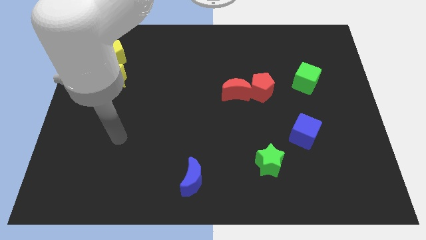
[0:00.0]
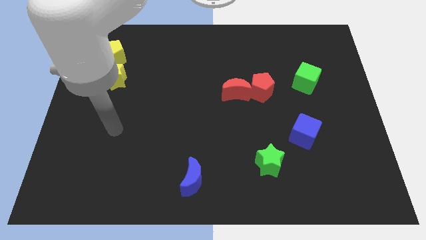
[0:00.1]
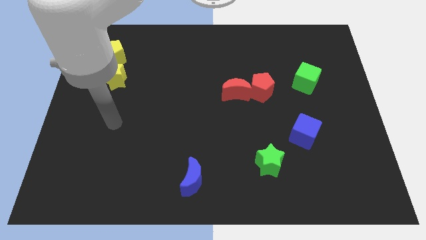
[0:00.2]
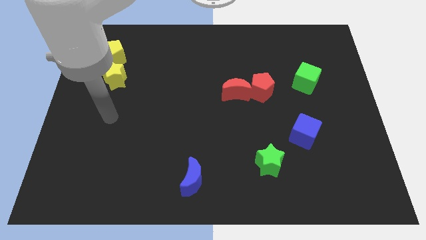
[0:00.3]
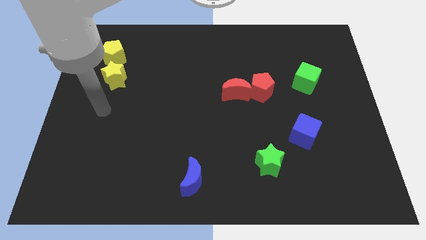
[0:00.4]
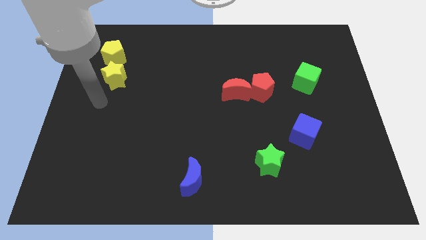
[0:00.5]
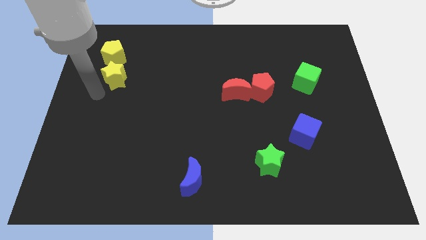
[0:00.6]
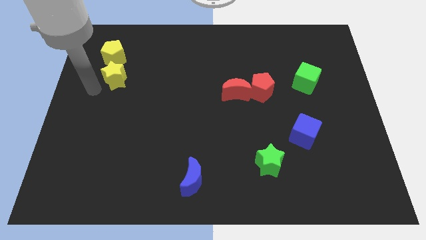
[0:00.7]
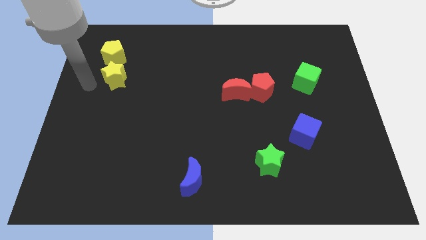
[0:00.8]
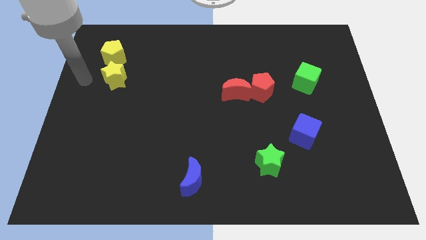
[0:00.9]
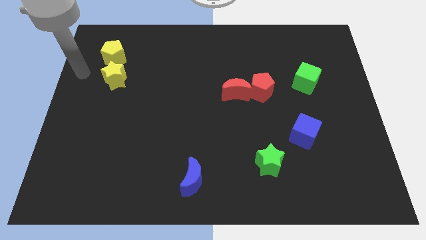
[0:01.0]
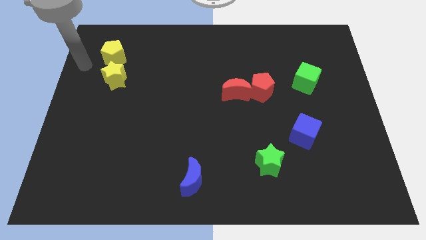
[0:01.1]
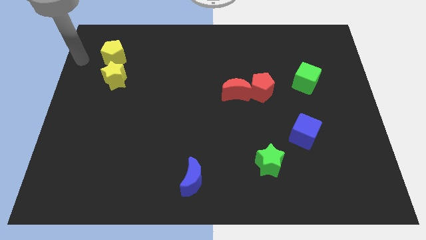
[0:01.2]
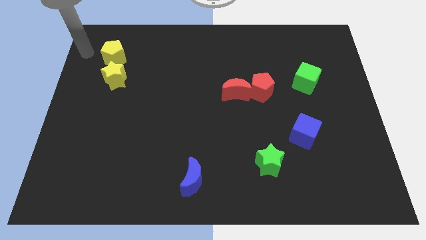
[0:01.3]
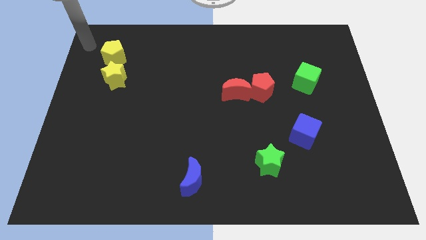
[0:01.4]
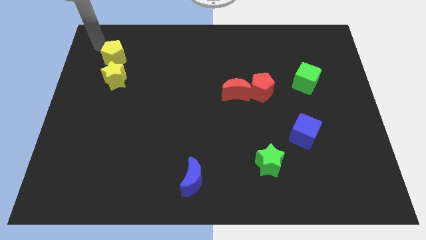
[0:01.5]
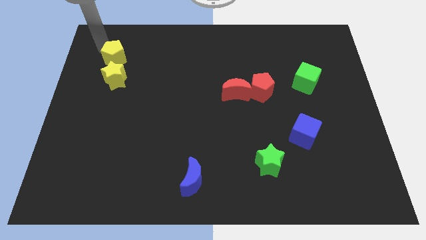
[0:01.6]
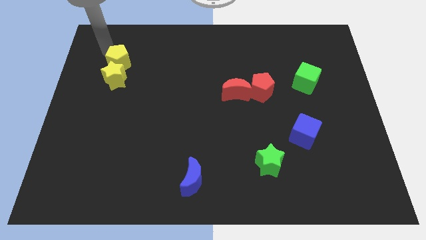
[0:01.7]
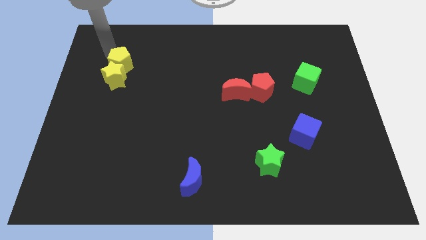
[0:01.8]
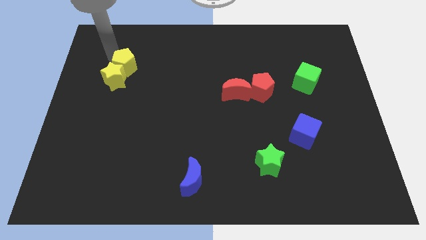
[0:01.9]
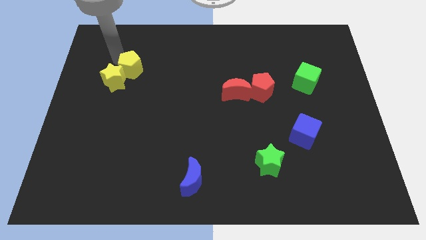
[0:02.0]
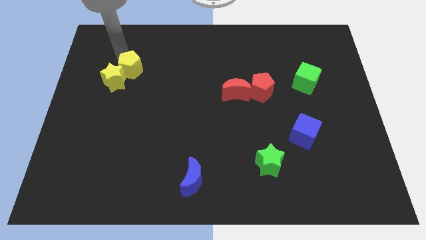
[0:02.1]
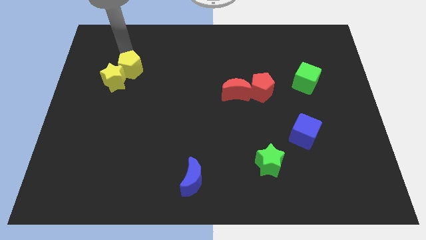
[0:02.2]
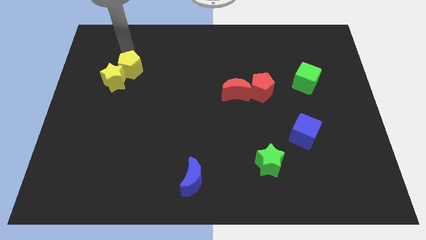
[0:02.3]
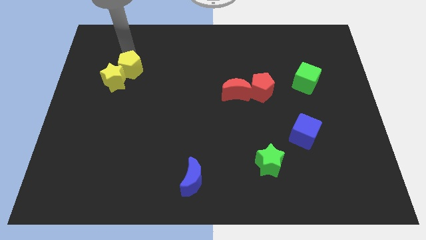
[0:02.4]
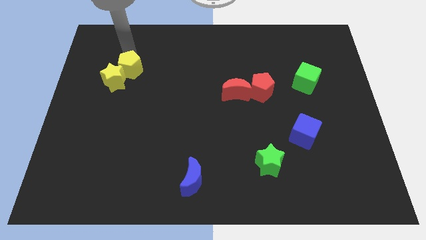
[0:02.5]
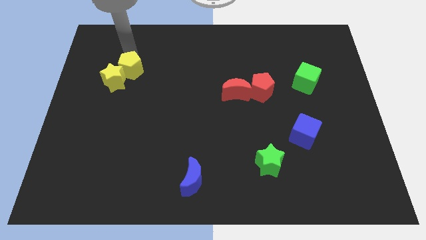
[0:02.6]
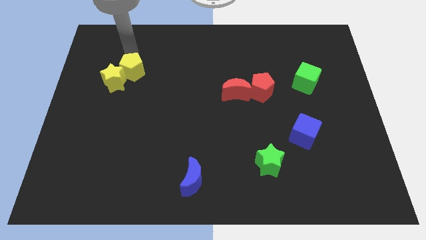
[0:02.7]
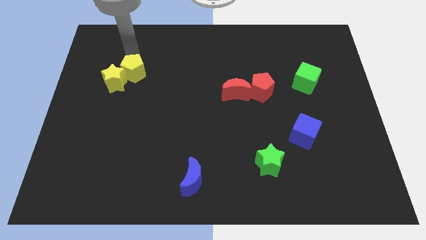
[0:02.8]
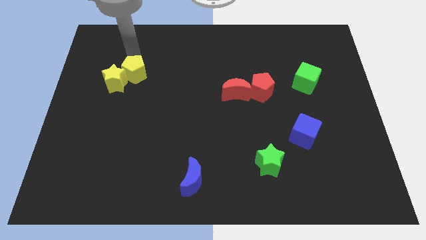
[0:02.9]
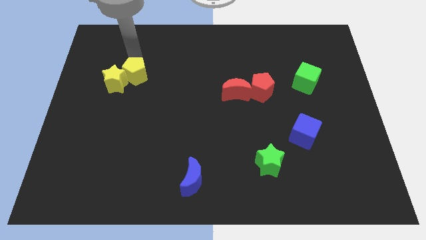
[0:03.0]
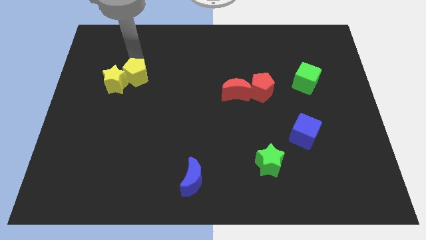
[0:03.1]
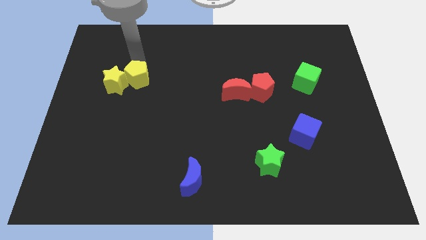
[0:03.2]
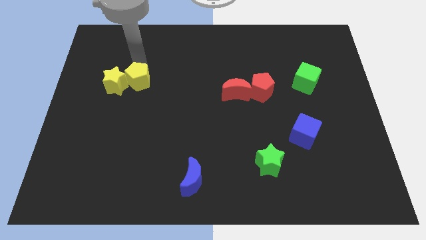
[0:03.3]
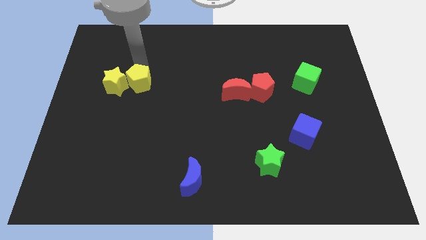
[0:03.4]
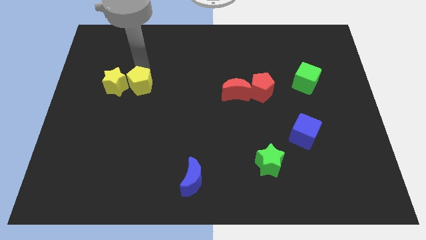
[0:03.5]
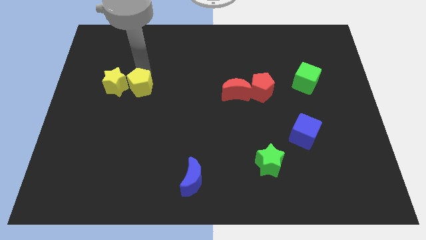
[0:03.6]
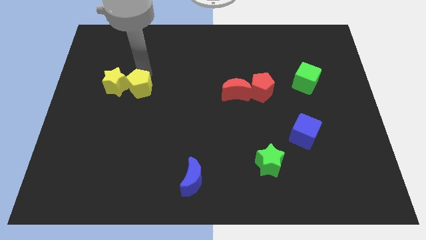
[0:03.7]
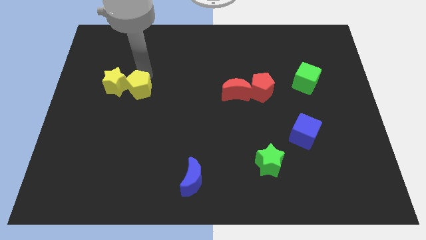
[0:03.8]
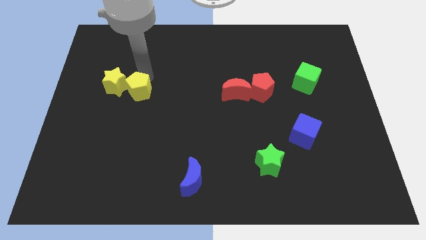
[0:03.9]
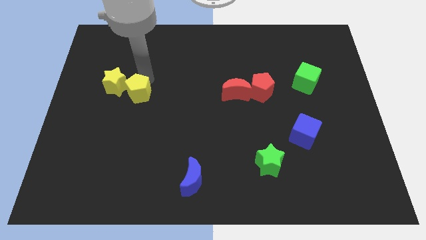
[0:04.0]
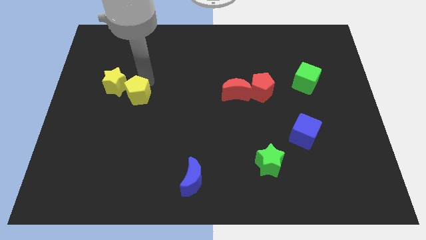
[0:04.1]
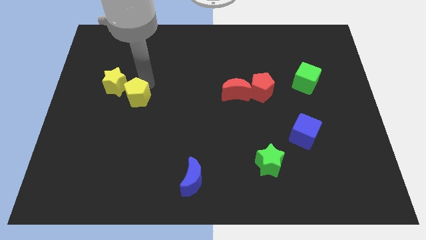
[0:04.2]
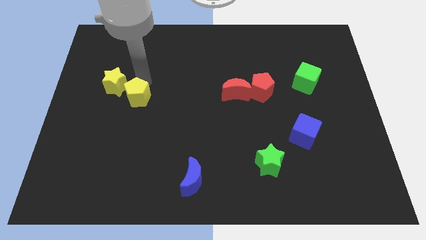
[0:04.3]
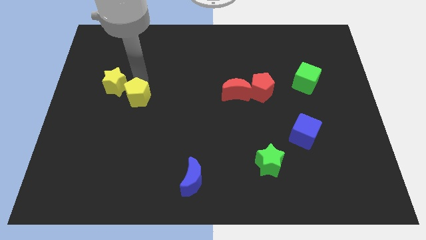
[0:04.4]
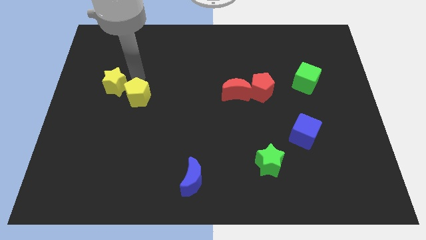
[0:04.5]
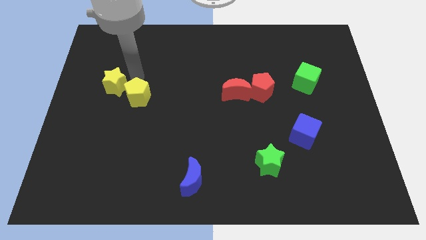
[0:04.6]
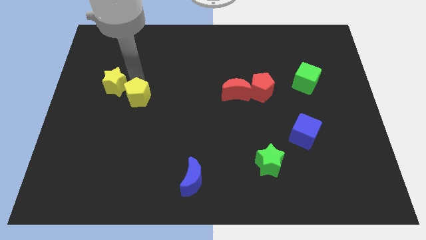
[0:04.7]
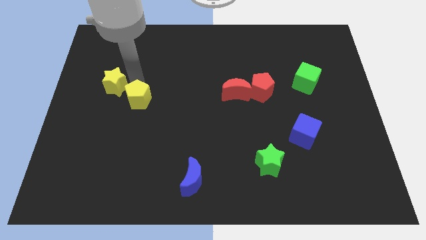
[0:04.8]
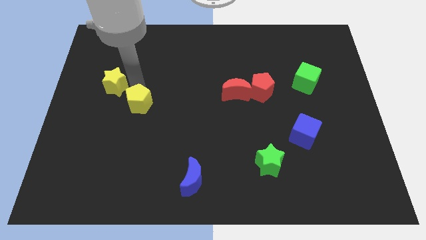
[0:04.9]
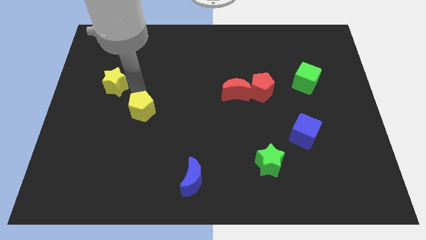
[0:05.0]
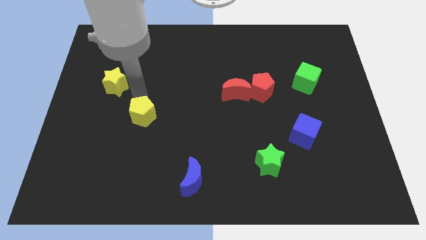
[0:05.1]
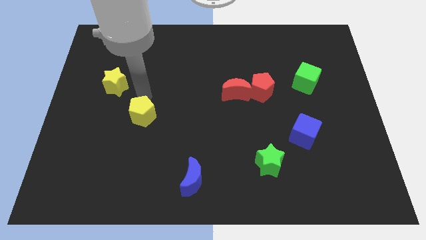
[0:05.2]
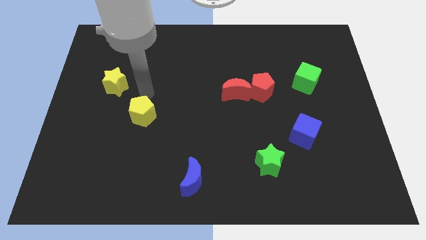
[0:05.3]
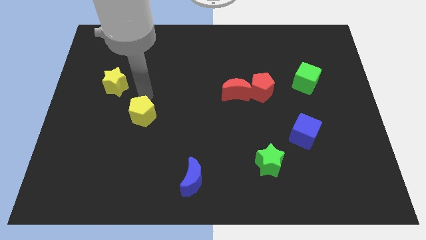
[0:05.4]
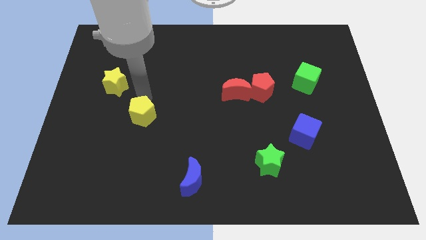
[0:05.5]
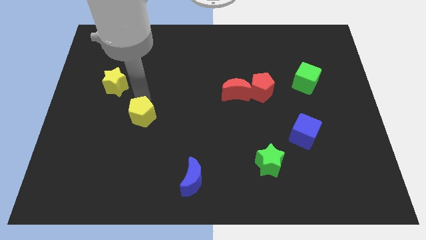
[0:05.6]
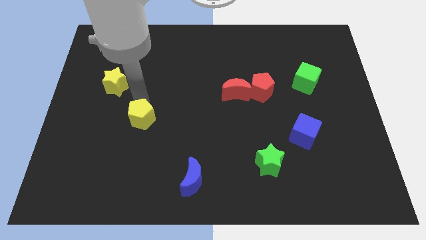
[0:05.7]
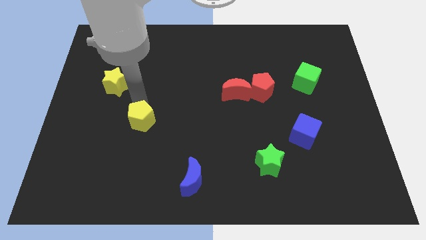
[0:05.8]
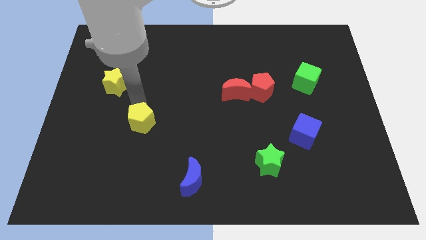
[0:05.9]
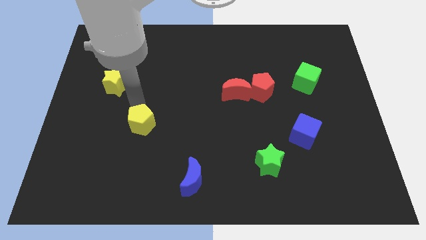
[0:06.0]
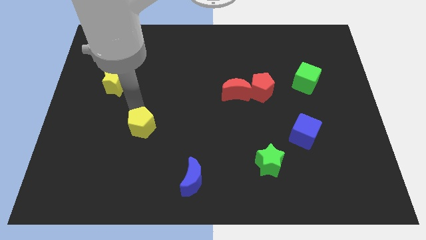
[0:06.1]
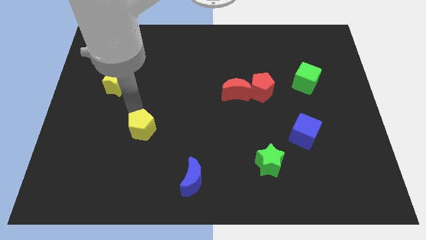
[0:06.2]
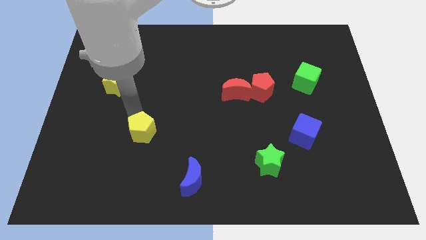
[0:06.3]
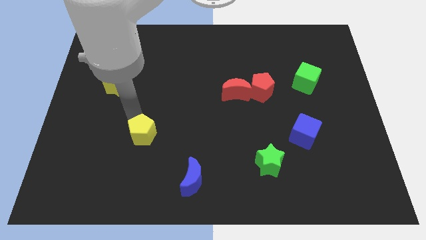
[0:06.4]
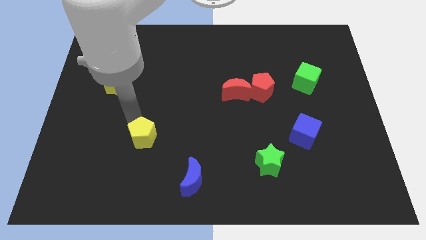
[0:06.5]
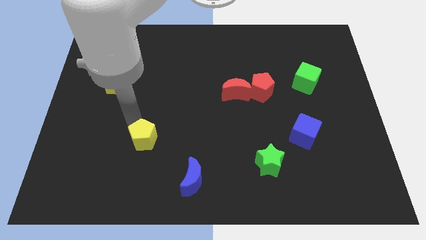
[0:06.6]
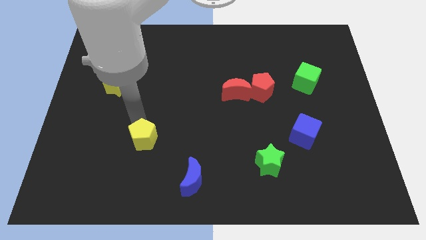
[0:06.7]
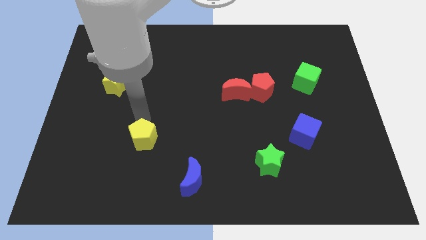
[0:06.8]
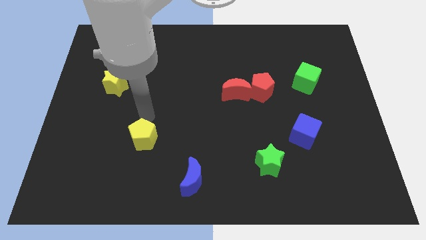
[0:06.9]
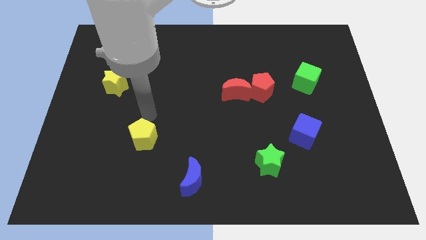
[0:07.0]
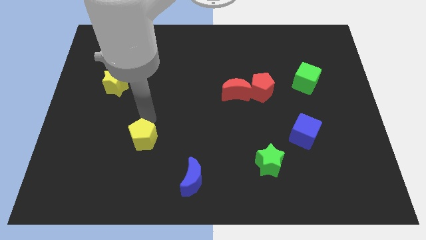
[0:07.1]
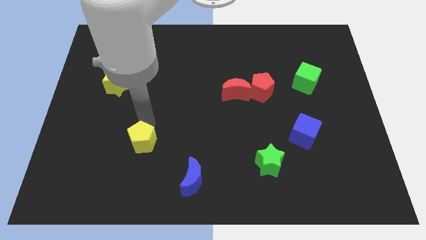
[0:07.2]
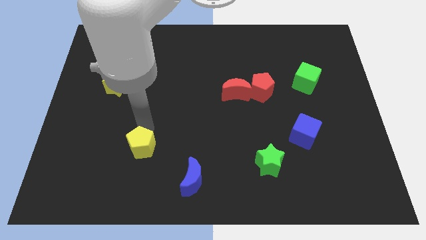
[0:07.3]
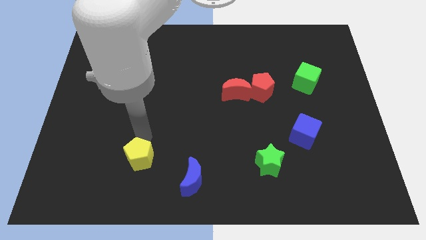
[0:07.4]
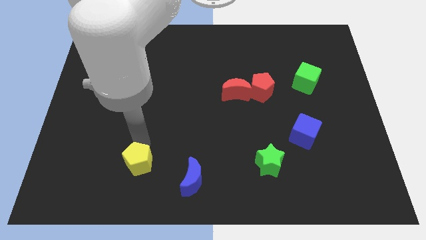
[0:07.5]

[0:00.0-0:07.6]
put the yellow pentagon just left of the blue moon
